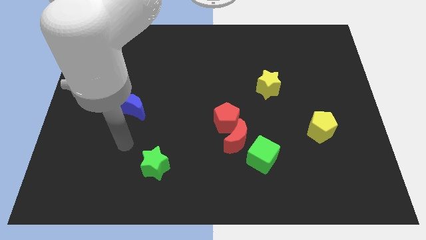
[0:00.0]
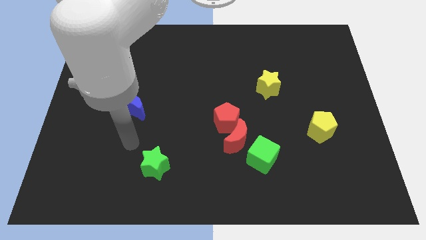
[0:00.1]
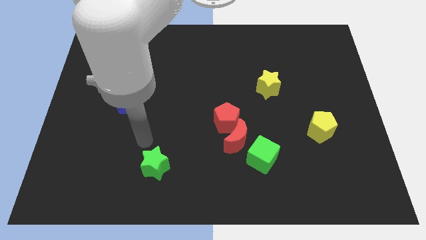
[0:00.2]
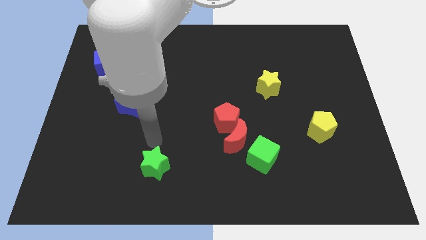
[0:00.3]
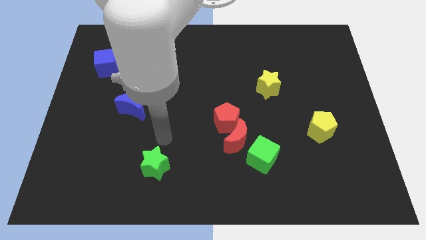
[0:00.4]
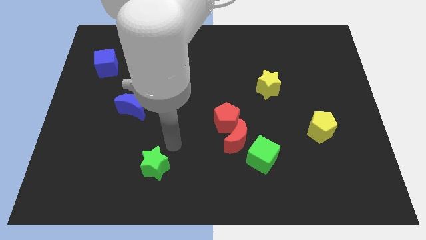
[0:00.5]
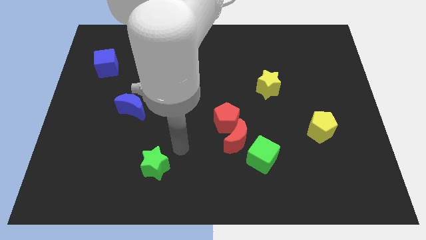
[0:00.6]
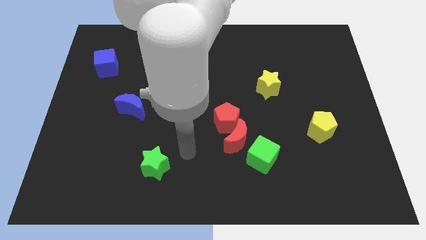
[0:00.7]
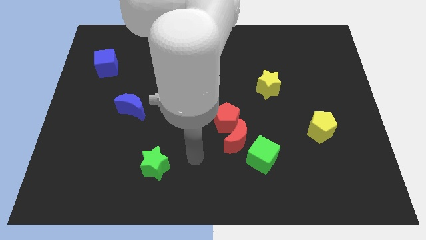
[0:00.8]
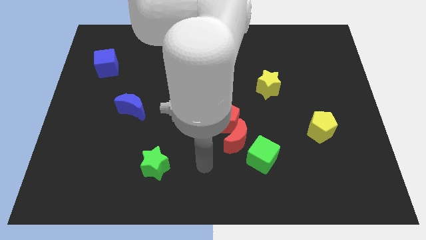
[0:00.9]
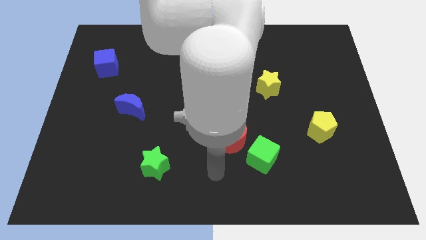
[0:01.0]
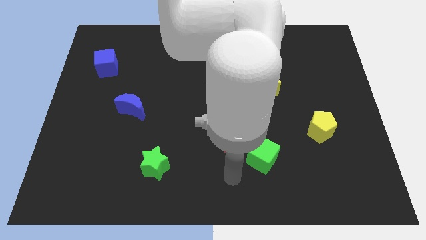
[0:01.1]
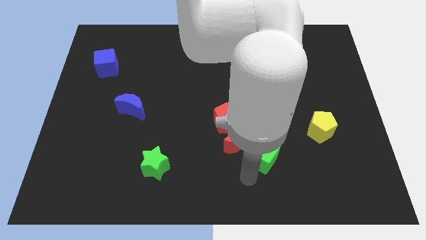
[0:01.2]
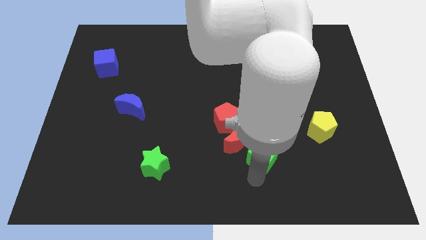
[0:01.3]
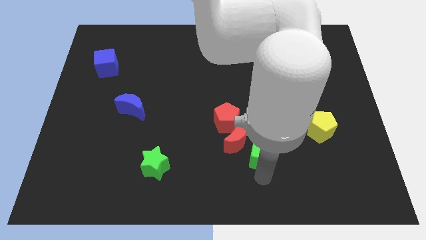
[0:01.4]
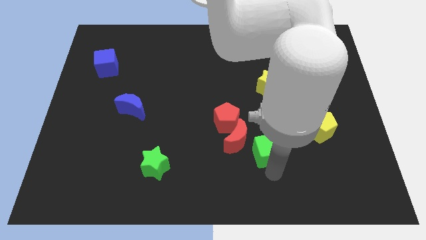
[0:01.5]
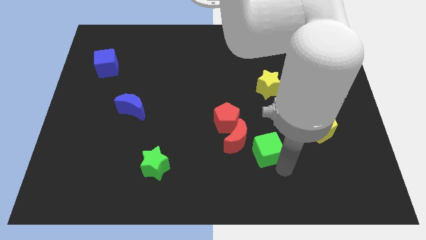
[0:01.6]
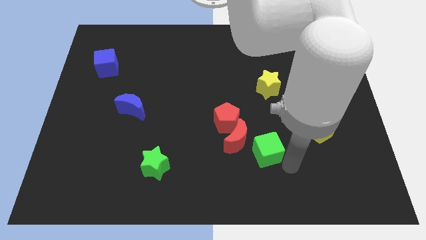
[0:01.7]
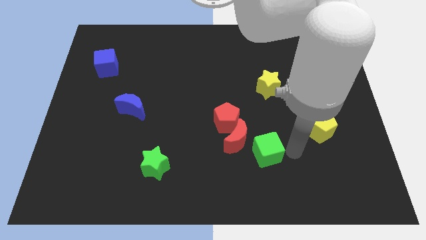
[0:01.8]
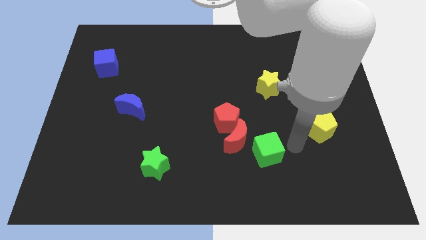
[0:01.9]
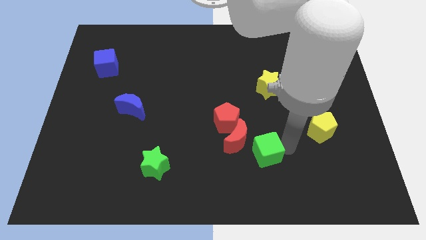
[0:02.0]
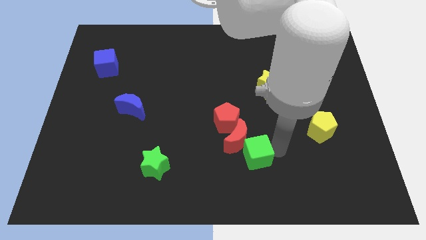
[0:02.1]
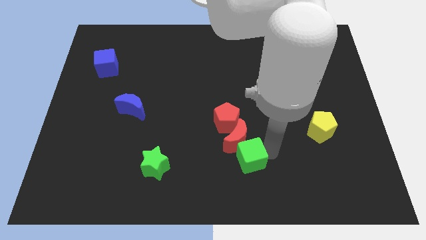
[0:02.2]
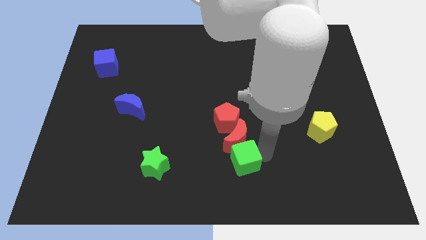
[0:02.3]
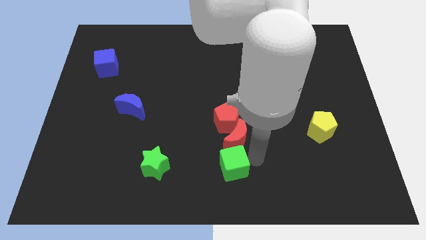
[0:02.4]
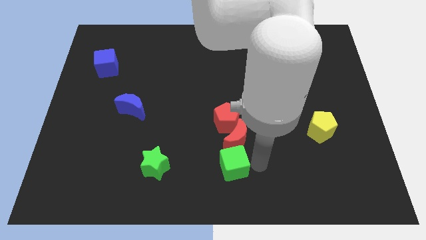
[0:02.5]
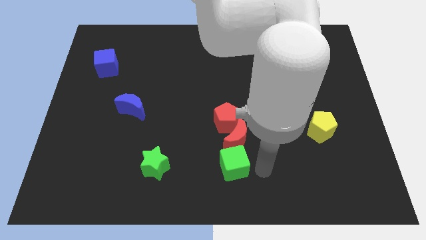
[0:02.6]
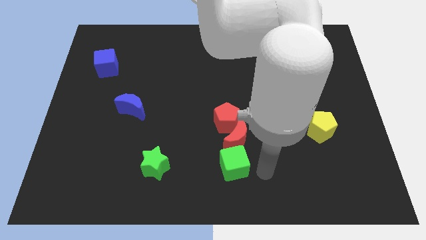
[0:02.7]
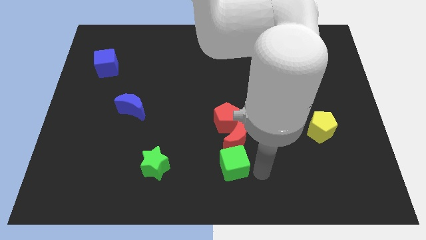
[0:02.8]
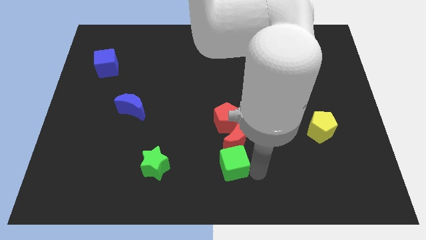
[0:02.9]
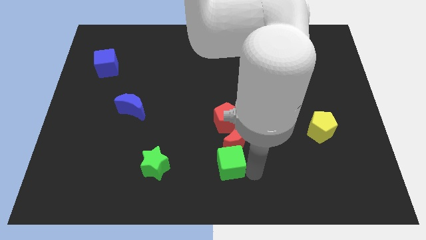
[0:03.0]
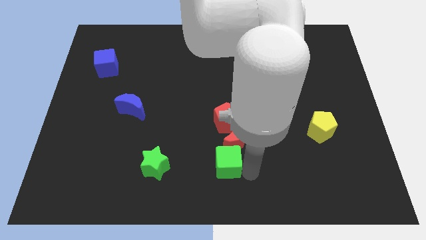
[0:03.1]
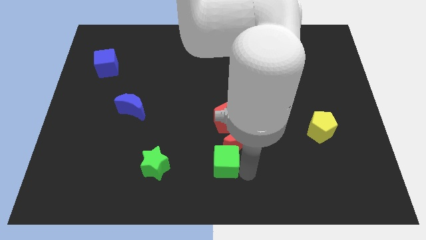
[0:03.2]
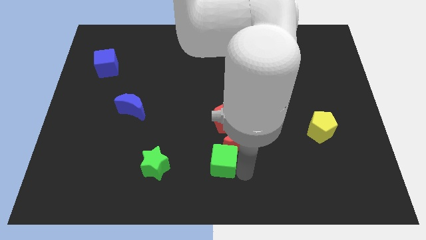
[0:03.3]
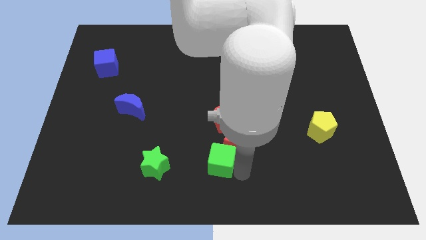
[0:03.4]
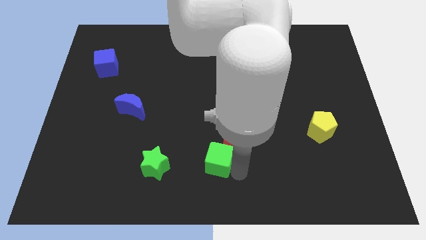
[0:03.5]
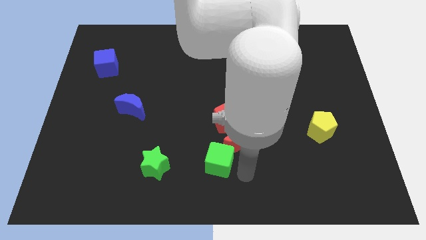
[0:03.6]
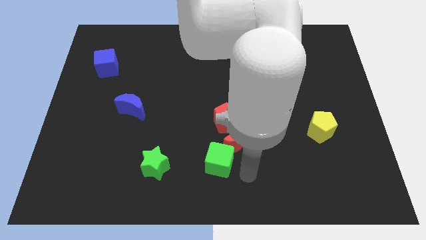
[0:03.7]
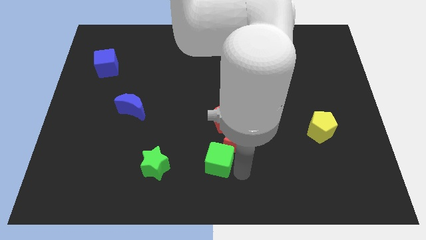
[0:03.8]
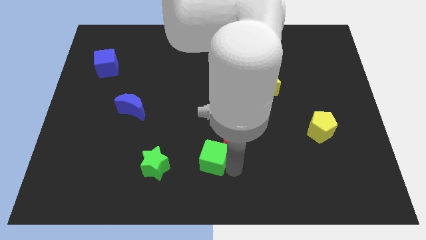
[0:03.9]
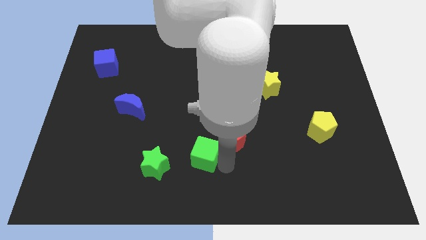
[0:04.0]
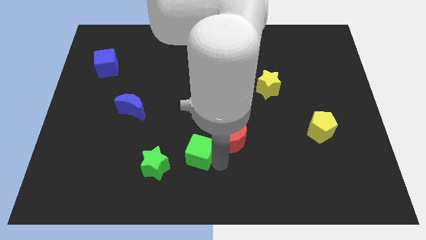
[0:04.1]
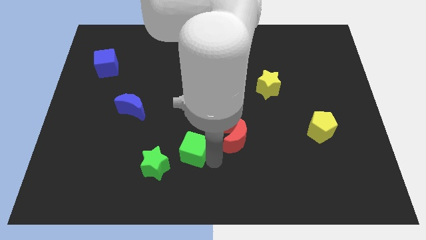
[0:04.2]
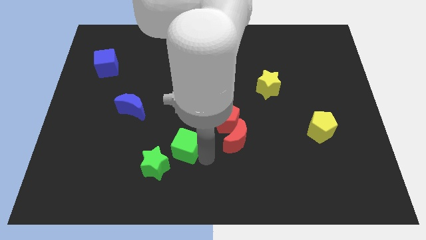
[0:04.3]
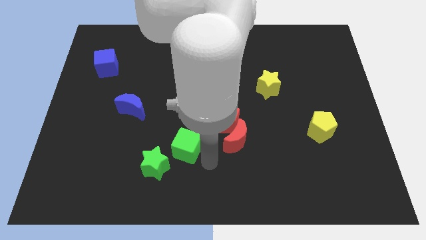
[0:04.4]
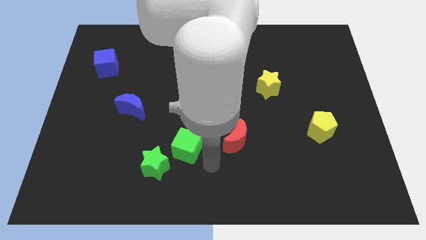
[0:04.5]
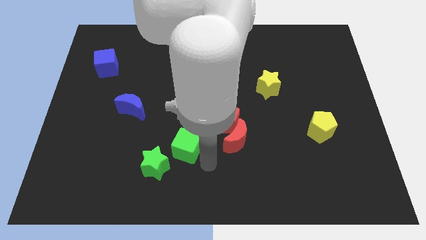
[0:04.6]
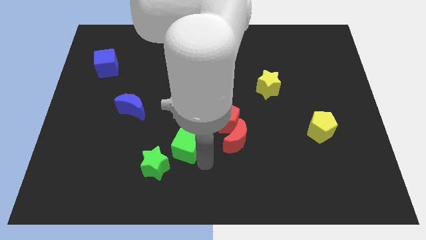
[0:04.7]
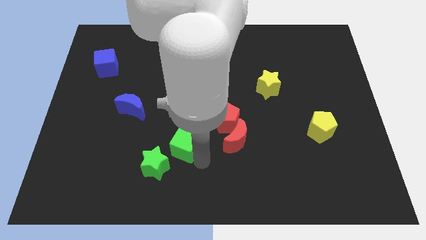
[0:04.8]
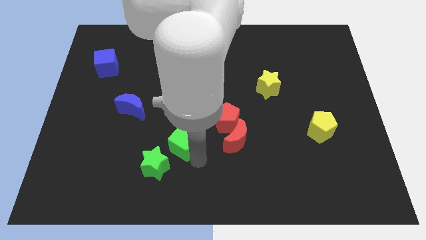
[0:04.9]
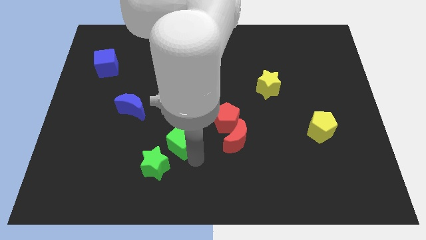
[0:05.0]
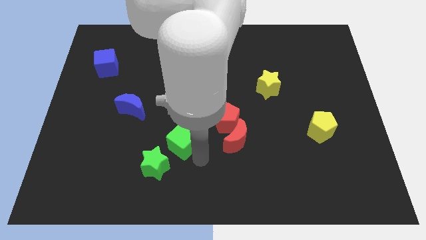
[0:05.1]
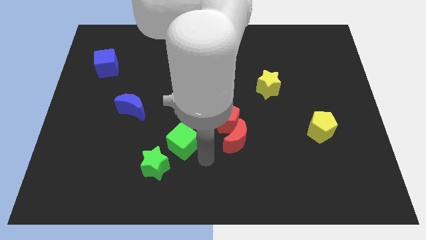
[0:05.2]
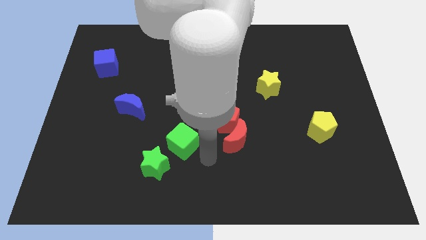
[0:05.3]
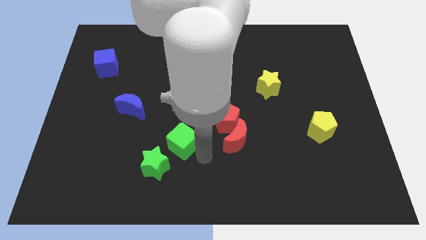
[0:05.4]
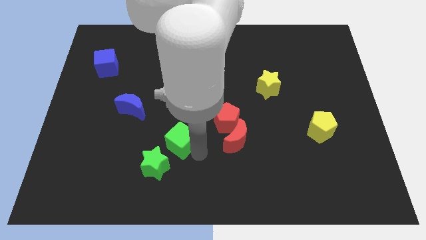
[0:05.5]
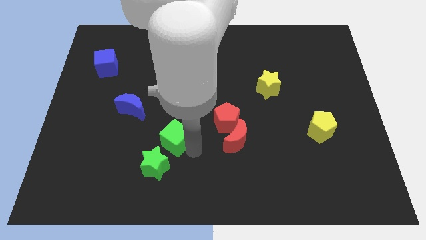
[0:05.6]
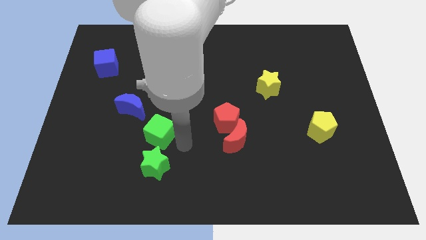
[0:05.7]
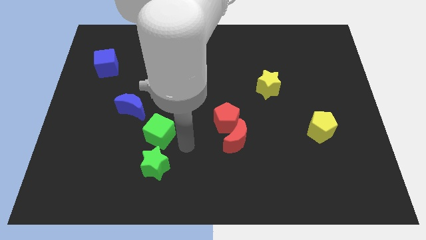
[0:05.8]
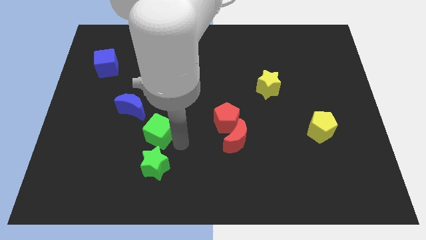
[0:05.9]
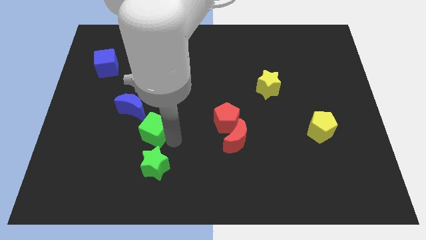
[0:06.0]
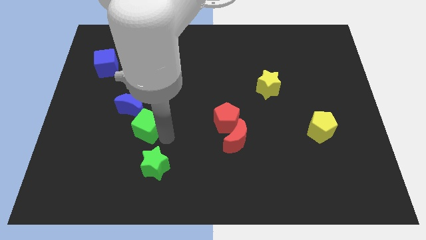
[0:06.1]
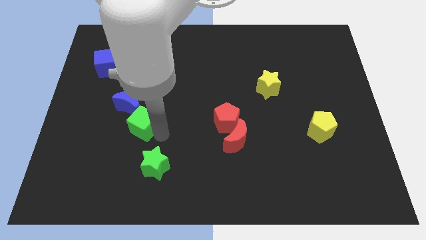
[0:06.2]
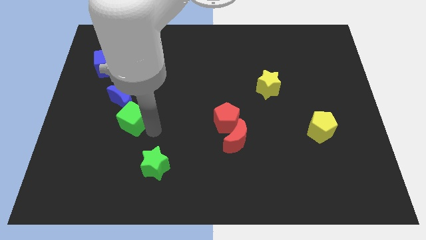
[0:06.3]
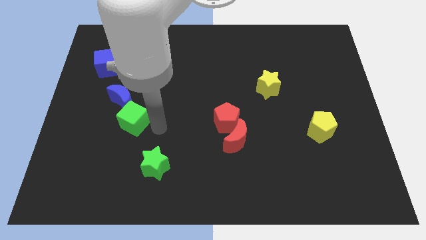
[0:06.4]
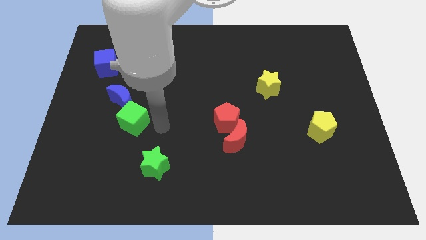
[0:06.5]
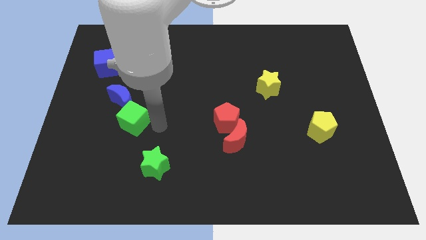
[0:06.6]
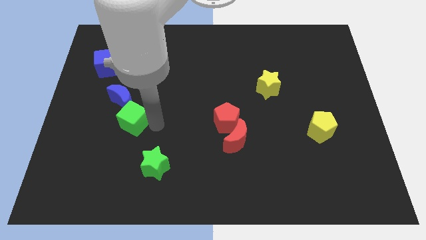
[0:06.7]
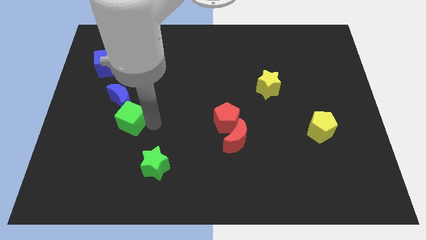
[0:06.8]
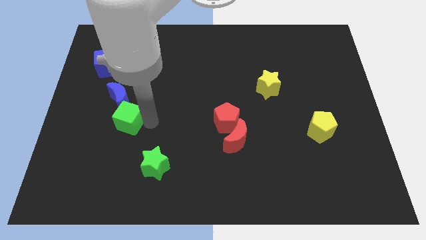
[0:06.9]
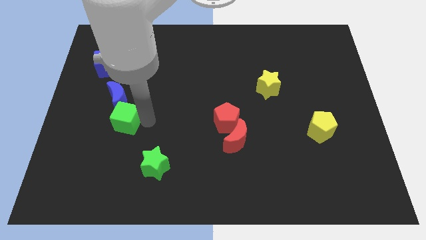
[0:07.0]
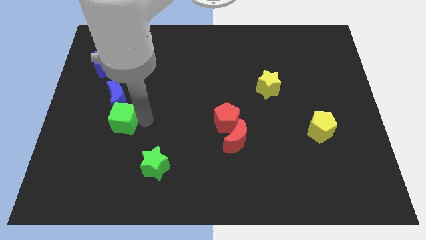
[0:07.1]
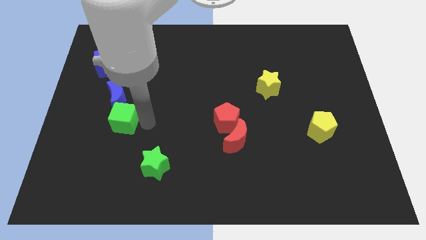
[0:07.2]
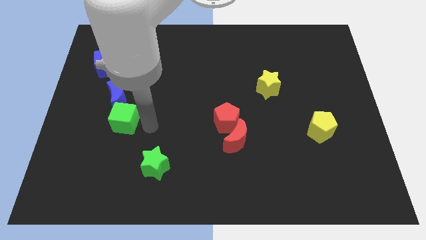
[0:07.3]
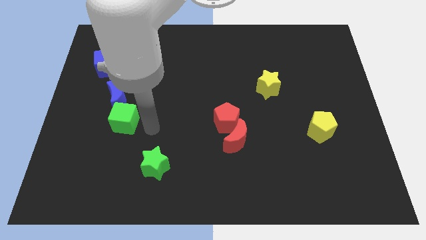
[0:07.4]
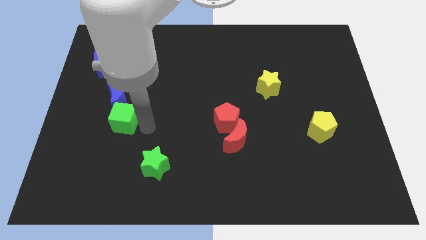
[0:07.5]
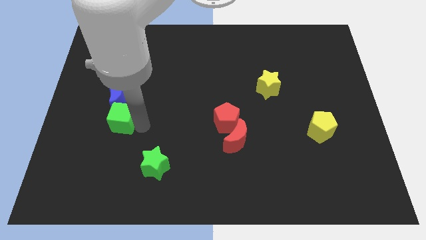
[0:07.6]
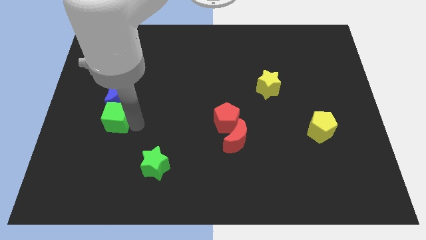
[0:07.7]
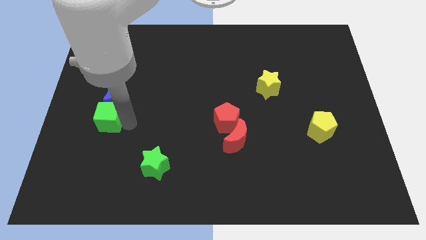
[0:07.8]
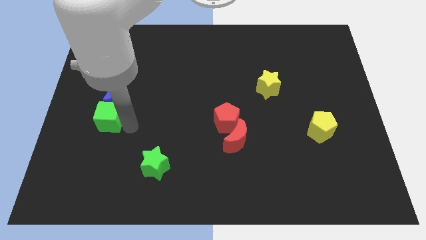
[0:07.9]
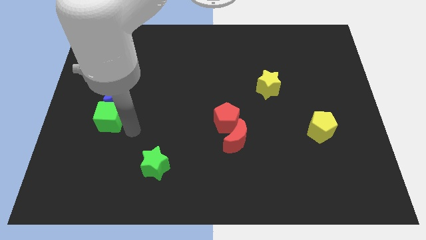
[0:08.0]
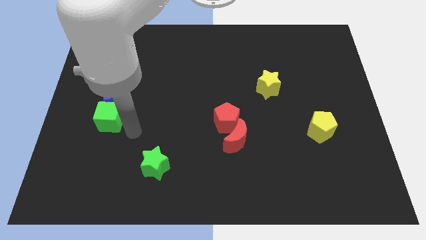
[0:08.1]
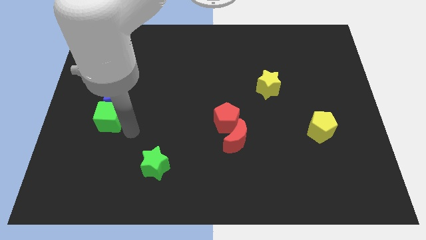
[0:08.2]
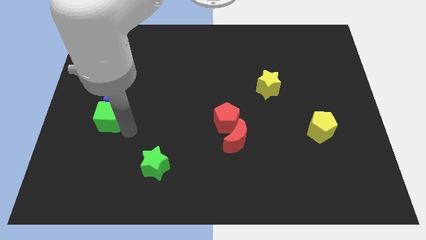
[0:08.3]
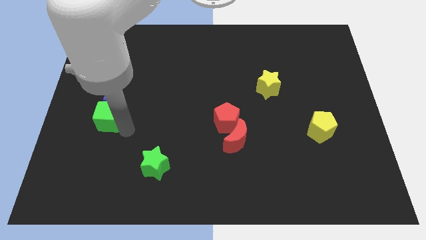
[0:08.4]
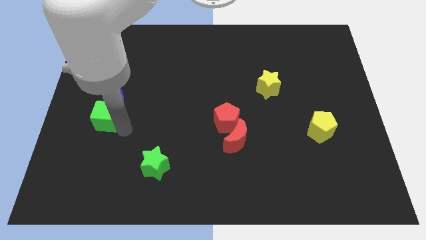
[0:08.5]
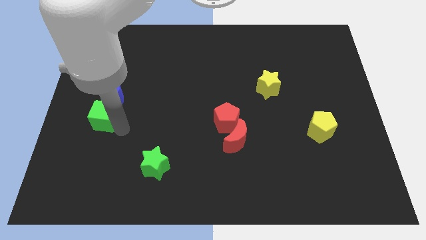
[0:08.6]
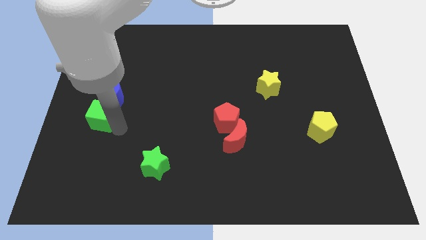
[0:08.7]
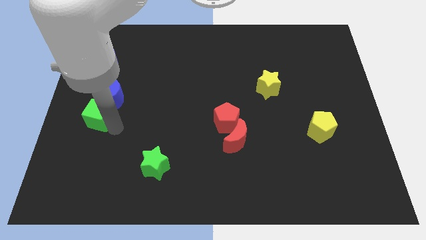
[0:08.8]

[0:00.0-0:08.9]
slide the green cube to the center left
